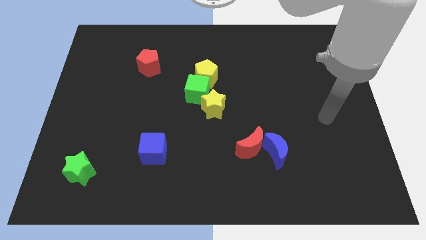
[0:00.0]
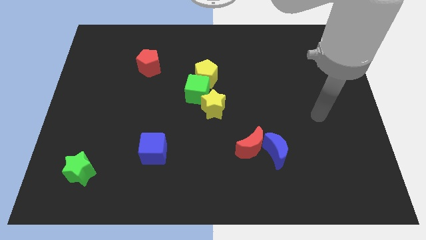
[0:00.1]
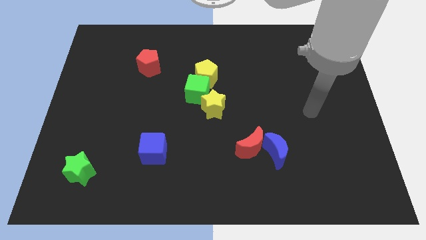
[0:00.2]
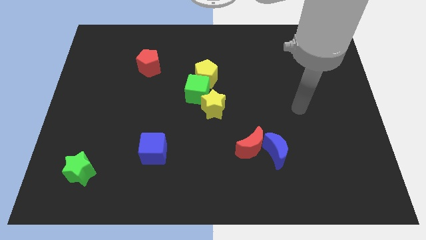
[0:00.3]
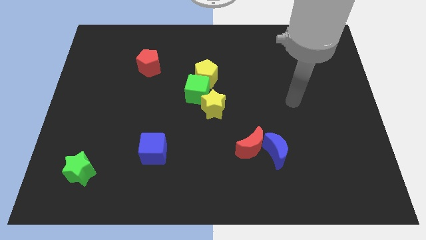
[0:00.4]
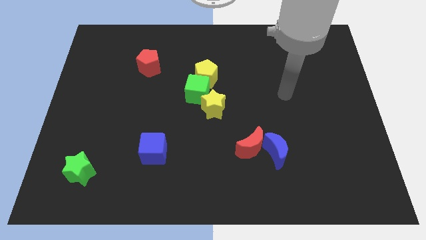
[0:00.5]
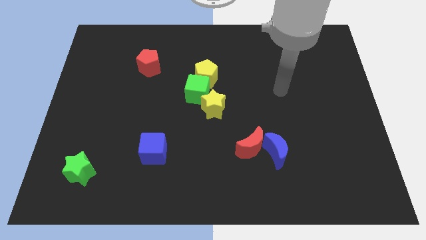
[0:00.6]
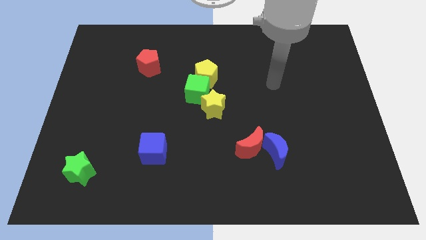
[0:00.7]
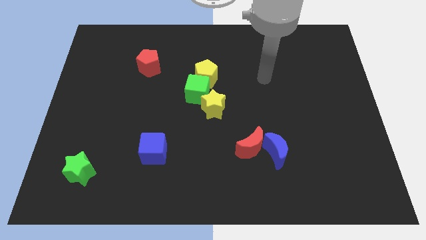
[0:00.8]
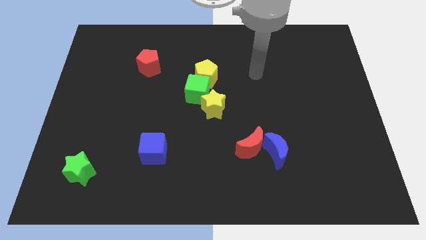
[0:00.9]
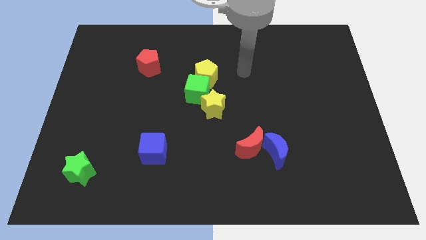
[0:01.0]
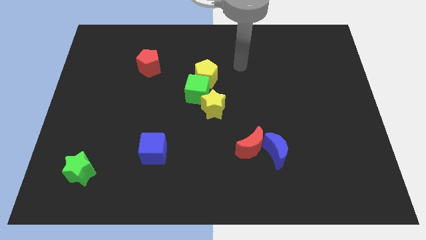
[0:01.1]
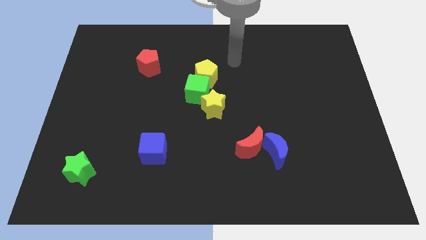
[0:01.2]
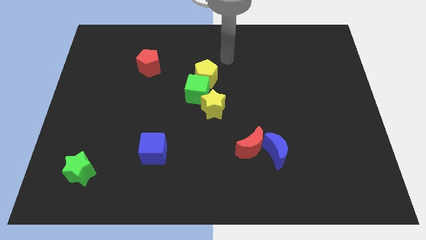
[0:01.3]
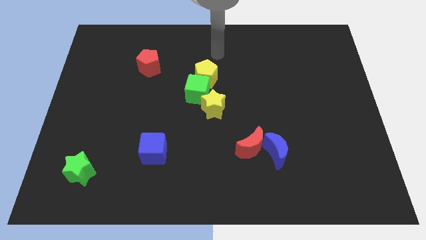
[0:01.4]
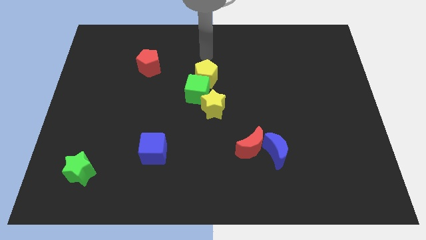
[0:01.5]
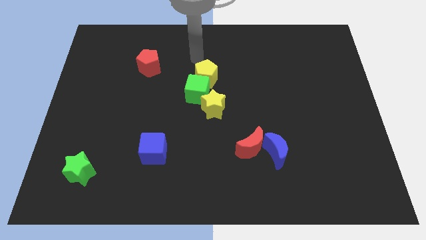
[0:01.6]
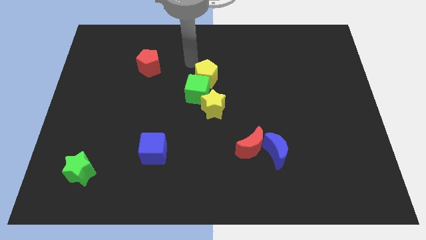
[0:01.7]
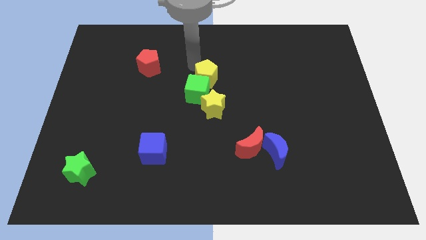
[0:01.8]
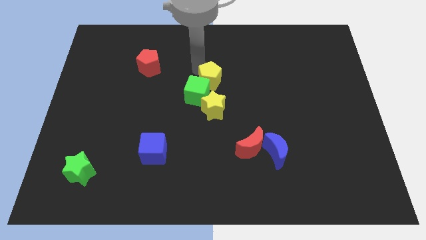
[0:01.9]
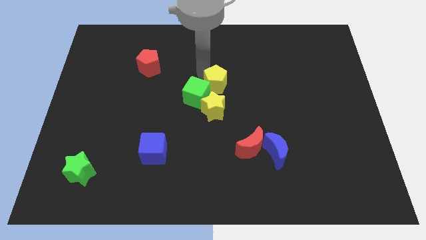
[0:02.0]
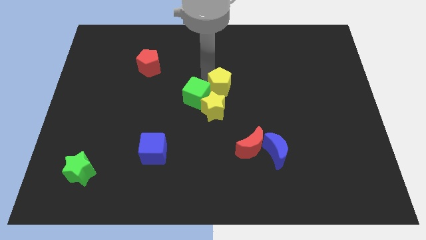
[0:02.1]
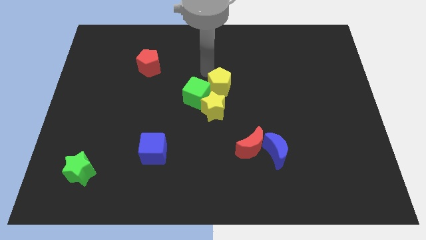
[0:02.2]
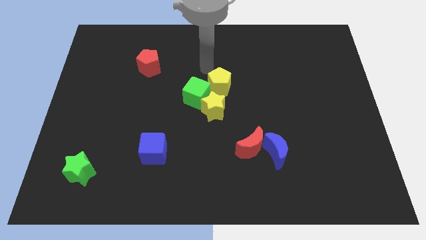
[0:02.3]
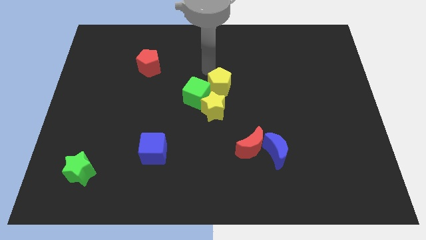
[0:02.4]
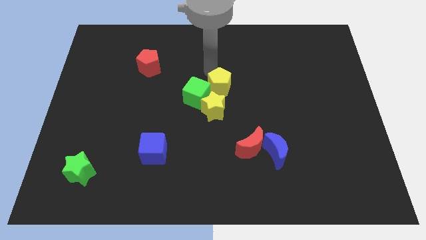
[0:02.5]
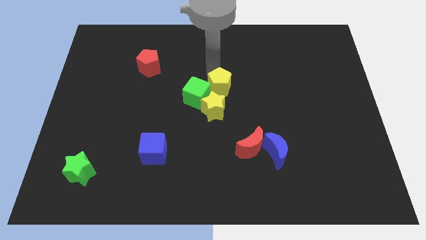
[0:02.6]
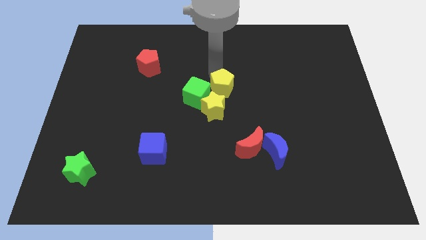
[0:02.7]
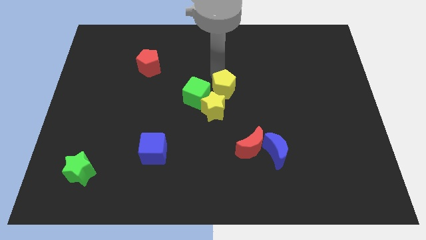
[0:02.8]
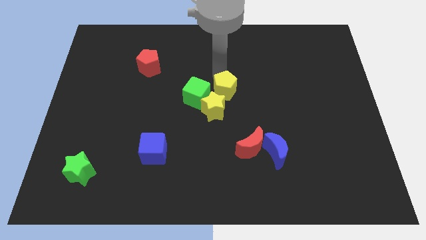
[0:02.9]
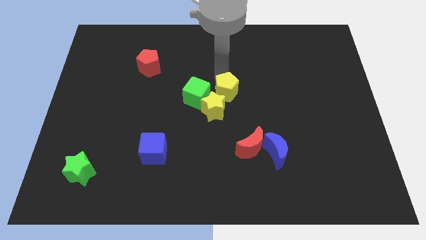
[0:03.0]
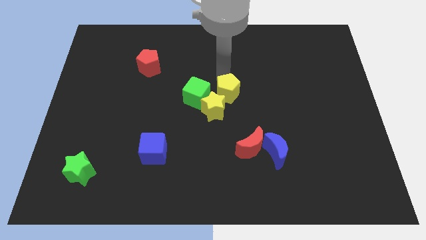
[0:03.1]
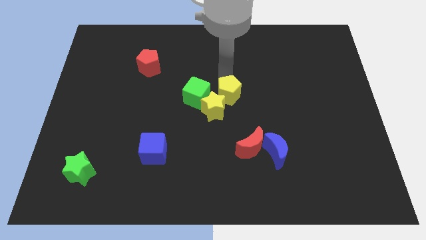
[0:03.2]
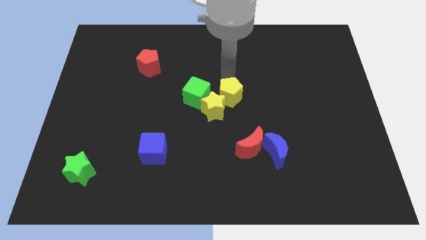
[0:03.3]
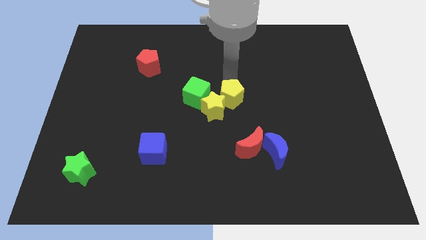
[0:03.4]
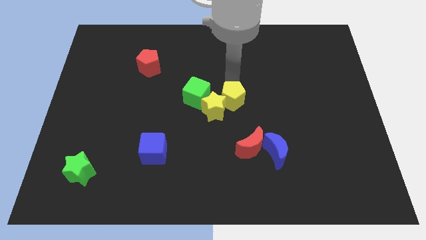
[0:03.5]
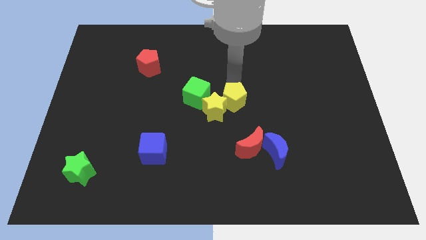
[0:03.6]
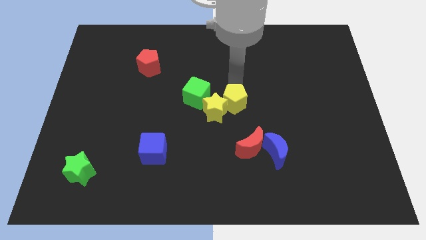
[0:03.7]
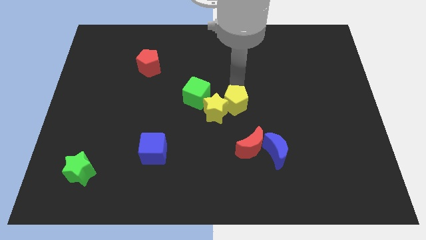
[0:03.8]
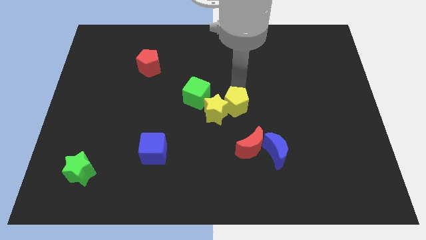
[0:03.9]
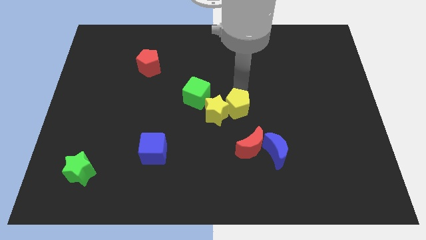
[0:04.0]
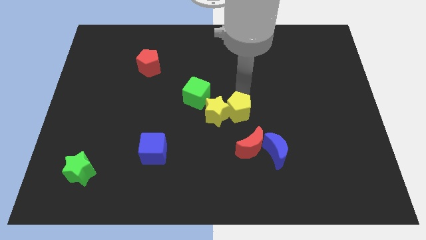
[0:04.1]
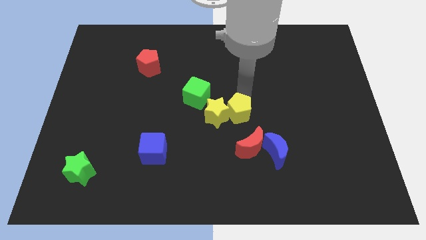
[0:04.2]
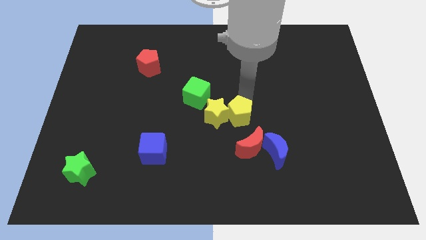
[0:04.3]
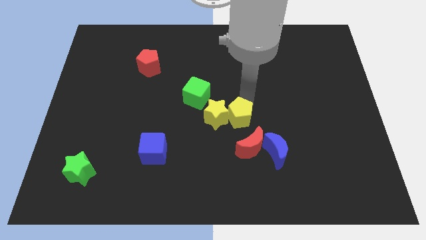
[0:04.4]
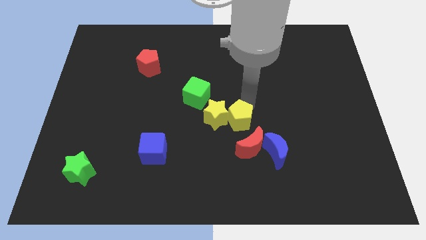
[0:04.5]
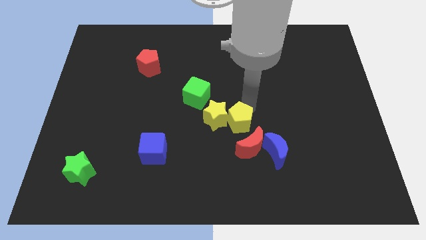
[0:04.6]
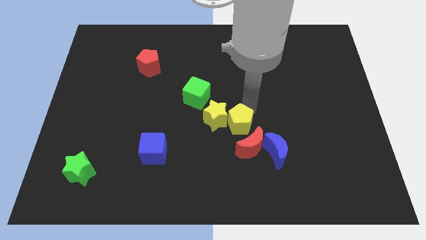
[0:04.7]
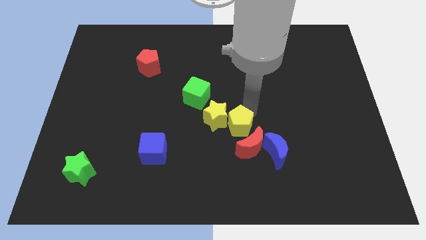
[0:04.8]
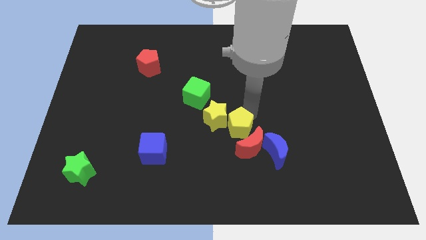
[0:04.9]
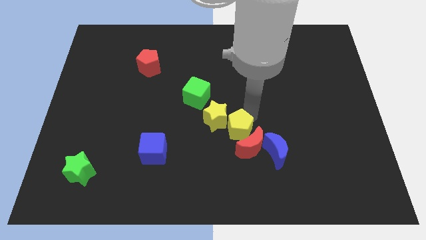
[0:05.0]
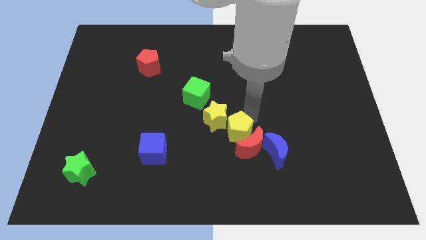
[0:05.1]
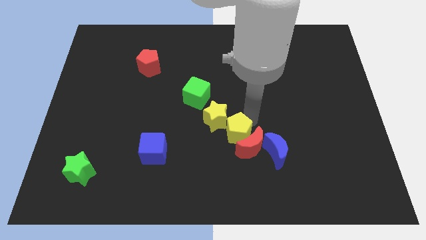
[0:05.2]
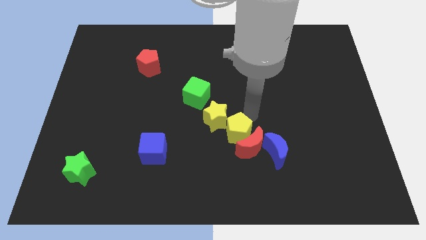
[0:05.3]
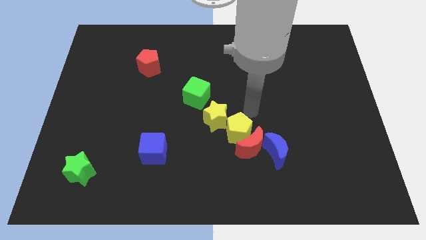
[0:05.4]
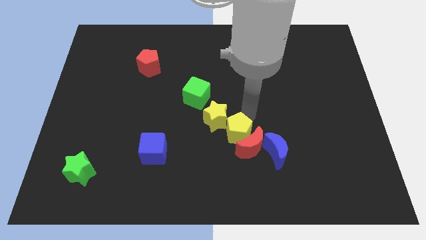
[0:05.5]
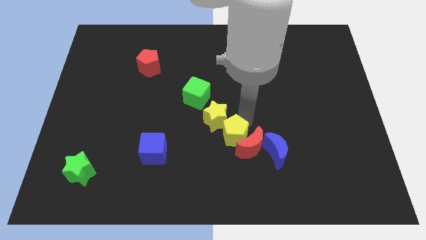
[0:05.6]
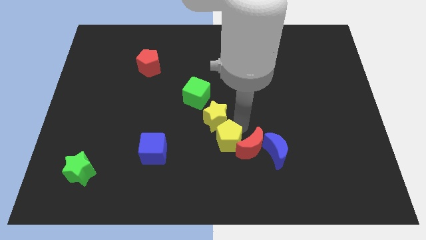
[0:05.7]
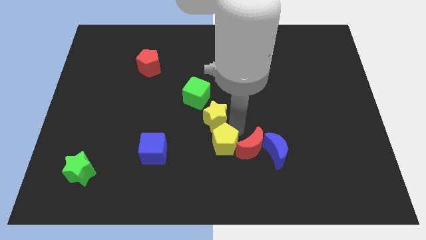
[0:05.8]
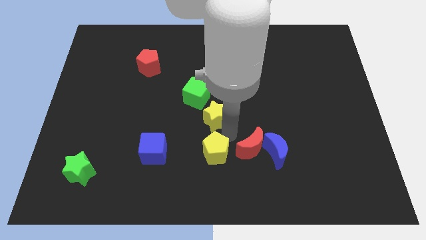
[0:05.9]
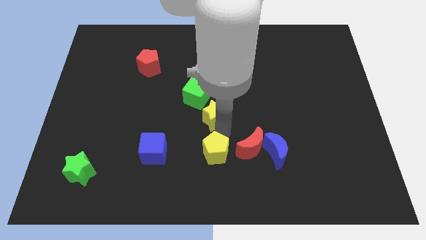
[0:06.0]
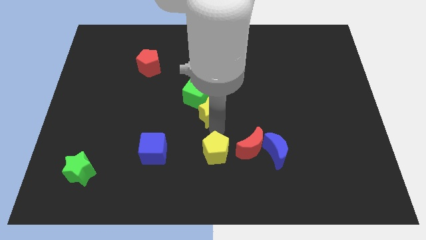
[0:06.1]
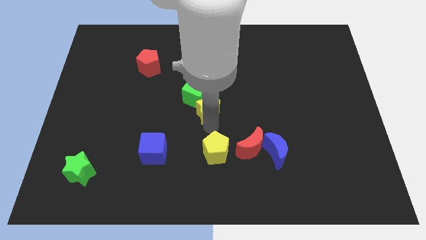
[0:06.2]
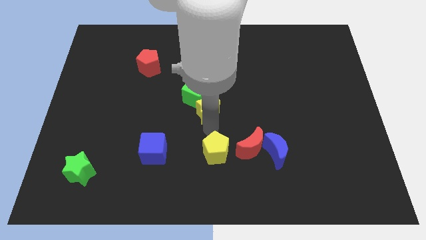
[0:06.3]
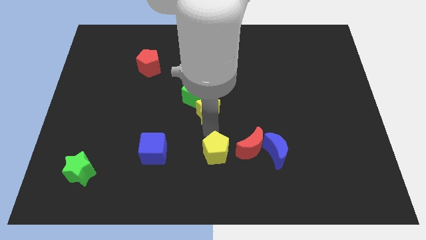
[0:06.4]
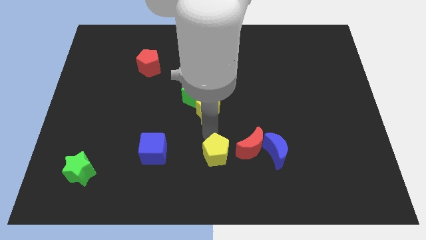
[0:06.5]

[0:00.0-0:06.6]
slide the yellow pentagon to the bottom side

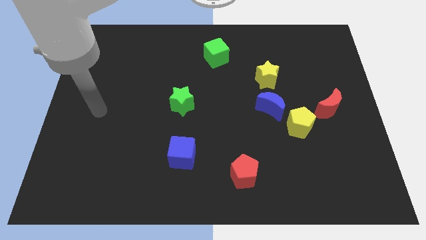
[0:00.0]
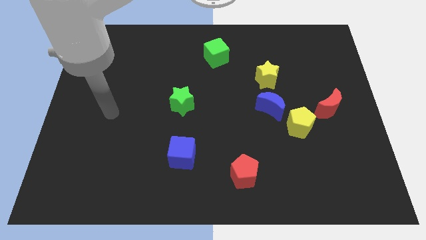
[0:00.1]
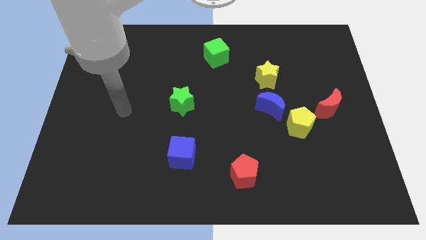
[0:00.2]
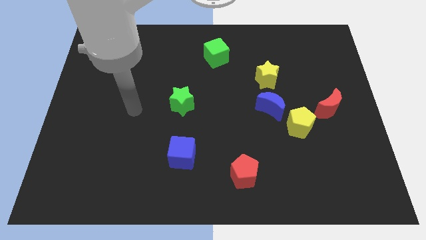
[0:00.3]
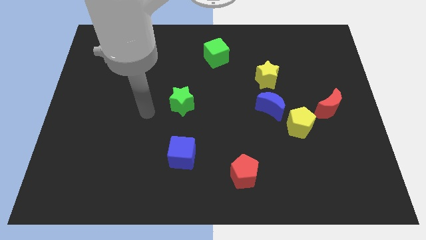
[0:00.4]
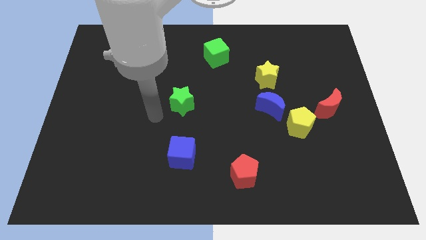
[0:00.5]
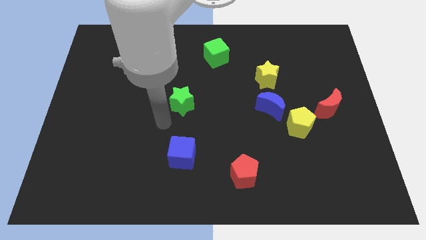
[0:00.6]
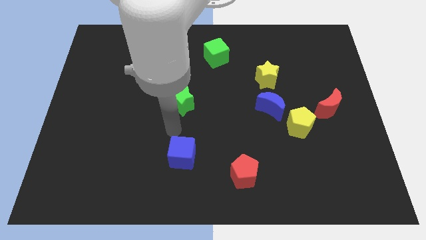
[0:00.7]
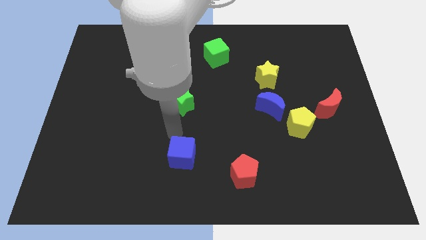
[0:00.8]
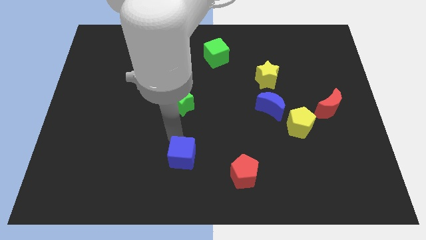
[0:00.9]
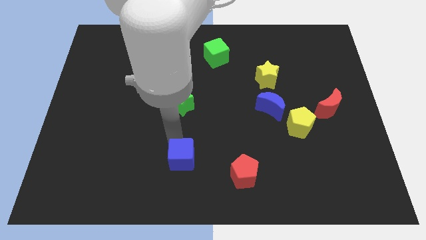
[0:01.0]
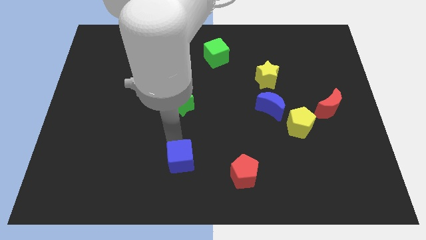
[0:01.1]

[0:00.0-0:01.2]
slide the blue cube to the bottom side
